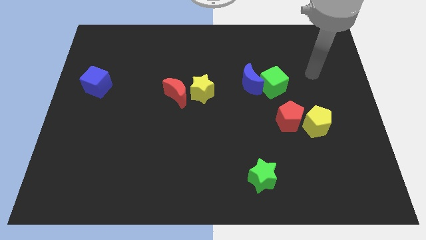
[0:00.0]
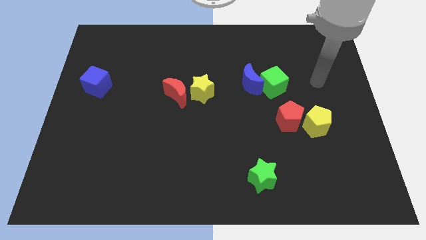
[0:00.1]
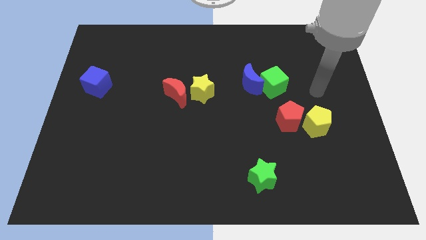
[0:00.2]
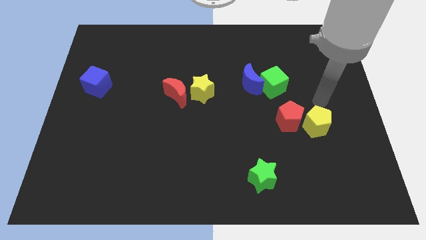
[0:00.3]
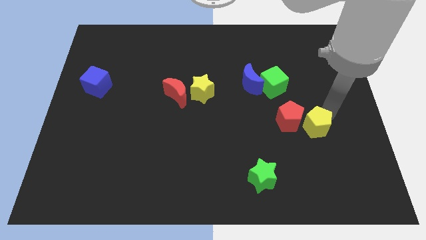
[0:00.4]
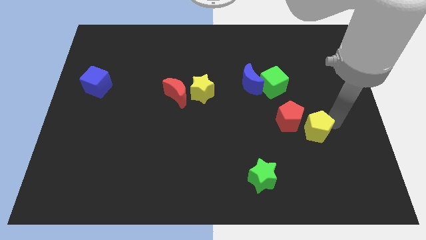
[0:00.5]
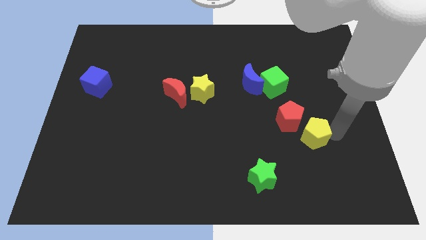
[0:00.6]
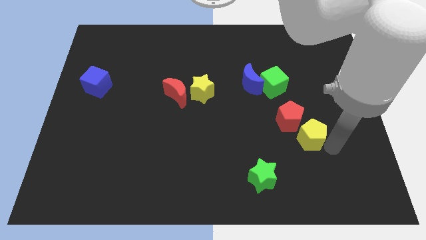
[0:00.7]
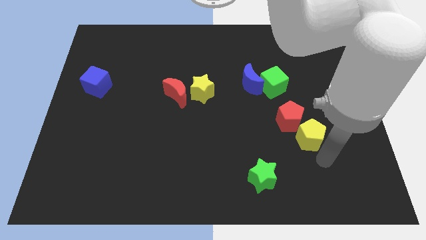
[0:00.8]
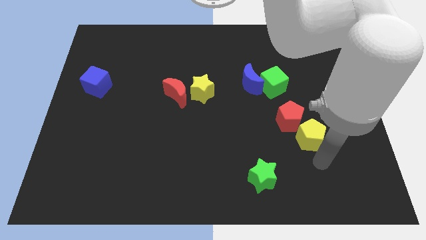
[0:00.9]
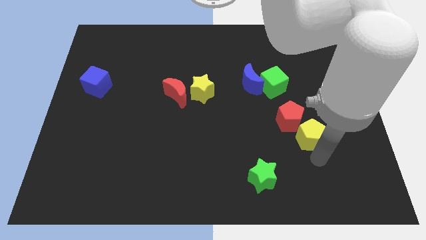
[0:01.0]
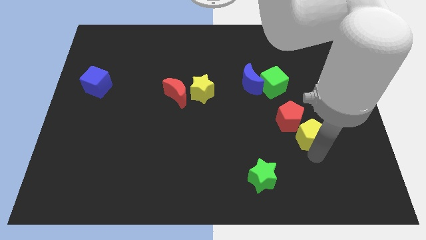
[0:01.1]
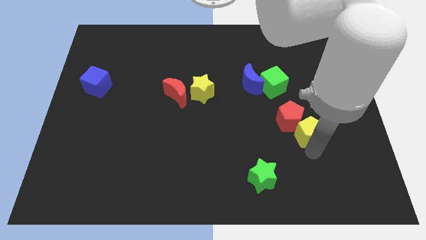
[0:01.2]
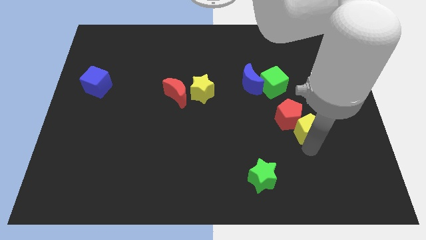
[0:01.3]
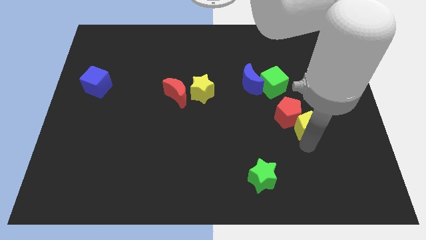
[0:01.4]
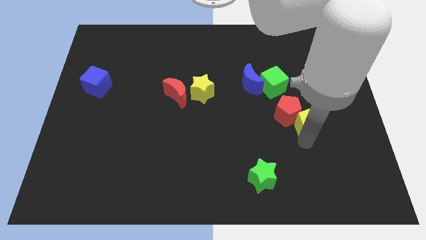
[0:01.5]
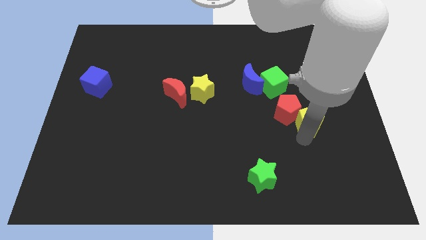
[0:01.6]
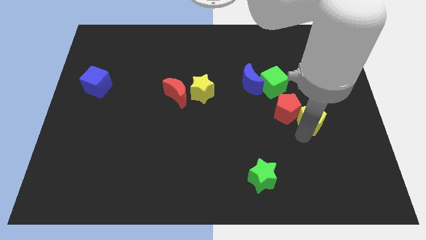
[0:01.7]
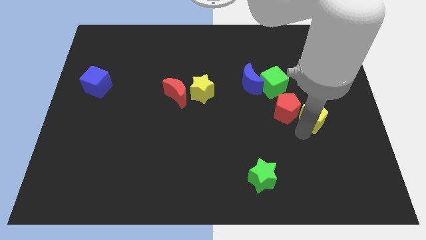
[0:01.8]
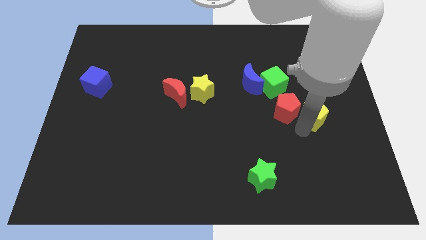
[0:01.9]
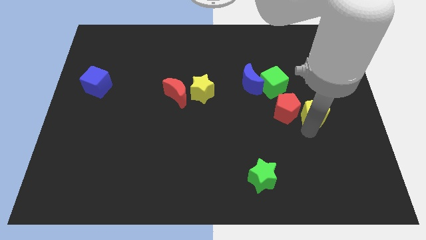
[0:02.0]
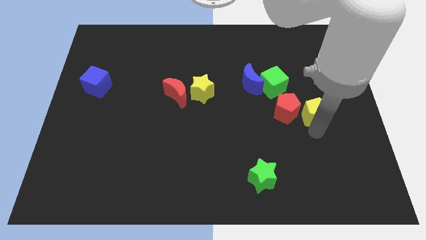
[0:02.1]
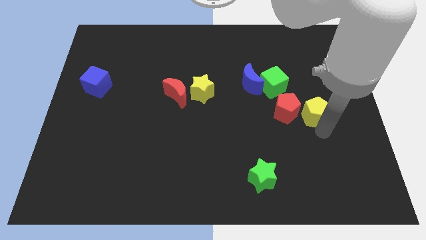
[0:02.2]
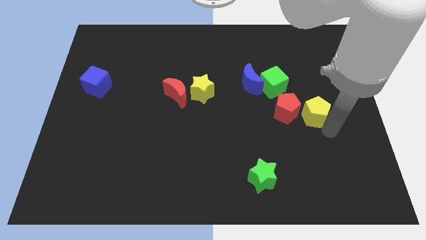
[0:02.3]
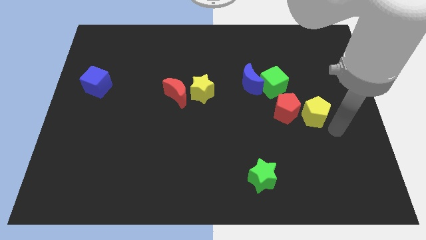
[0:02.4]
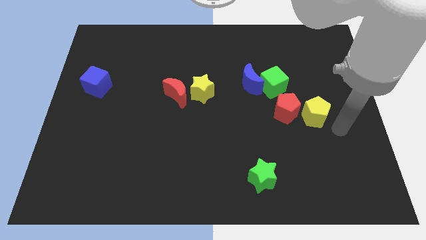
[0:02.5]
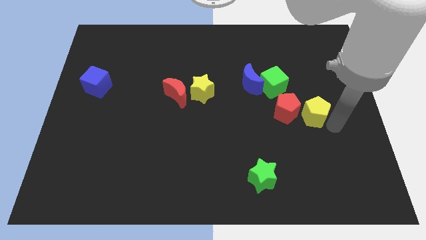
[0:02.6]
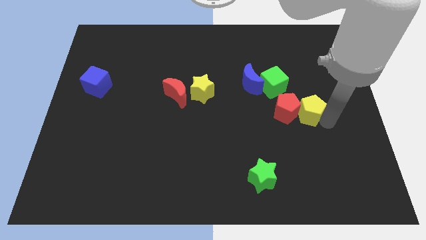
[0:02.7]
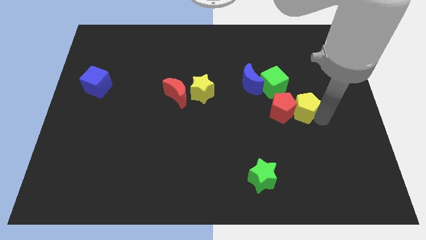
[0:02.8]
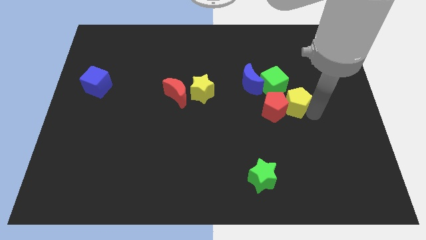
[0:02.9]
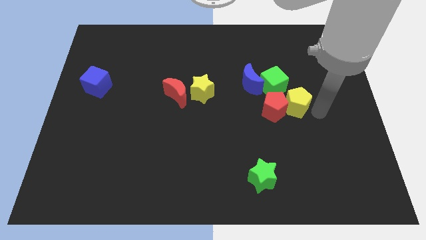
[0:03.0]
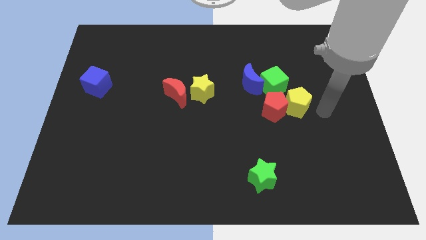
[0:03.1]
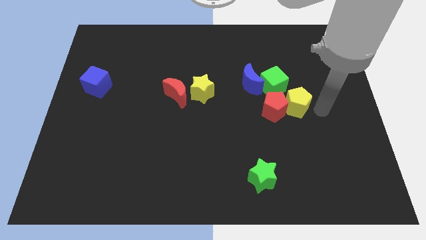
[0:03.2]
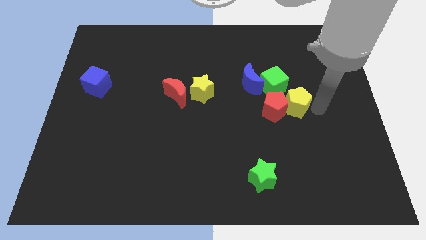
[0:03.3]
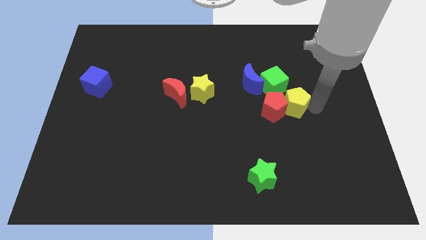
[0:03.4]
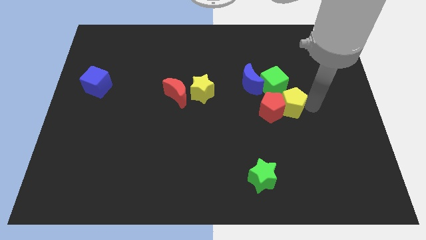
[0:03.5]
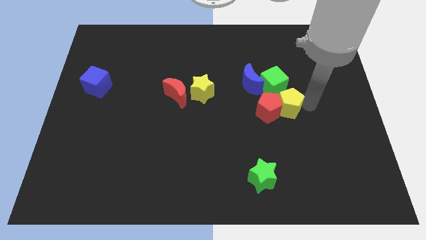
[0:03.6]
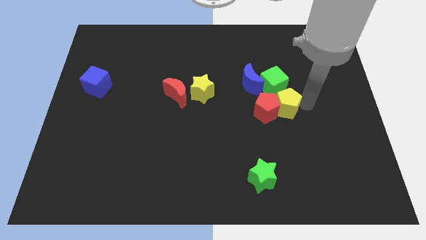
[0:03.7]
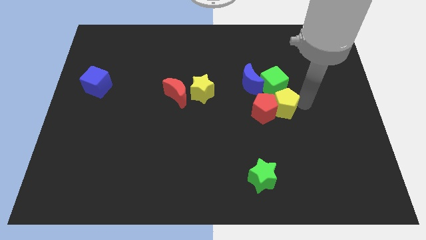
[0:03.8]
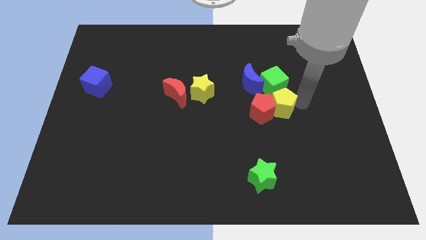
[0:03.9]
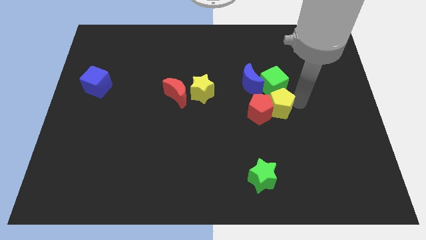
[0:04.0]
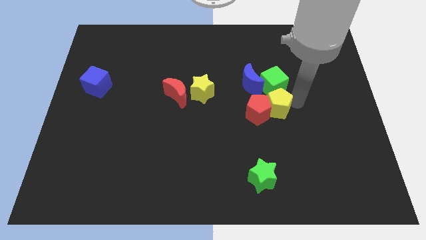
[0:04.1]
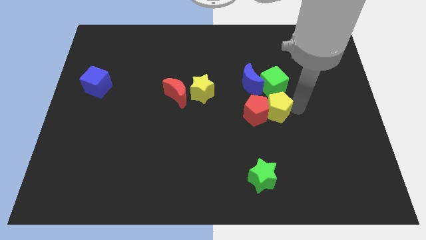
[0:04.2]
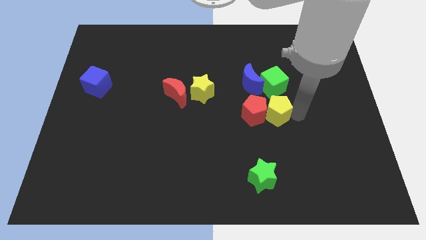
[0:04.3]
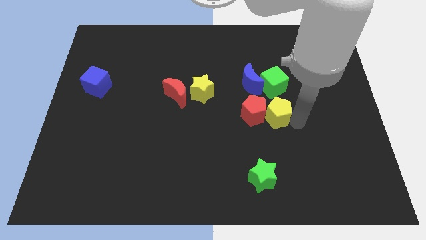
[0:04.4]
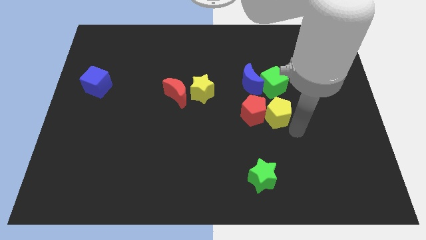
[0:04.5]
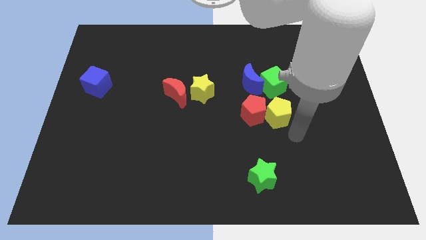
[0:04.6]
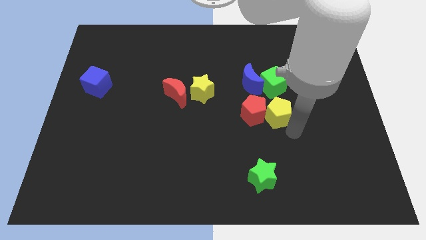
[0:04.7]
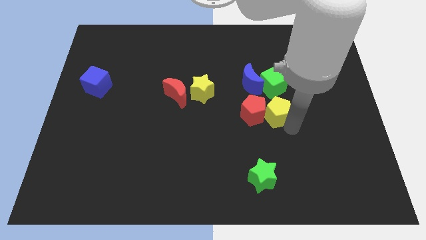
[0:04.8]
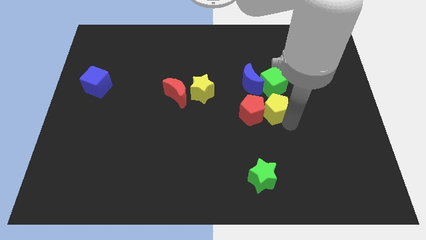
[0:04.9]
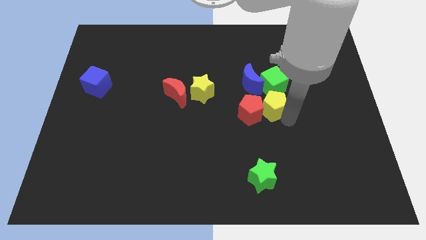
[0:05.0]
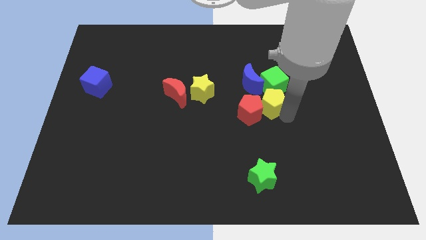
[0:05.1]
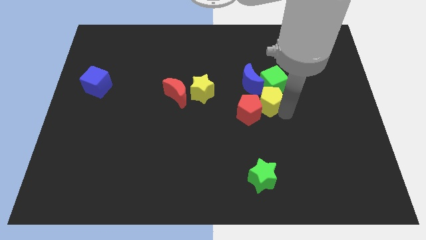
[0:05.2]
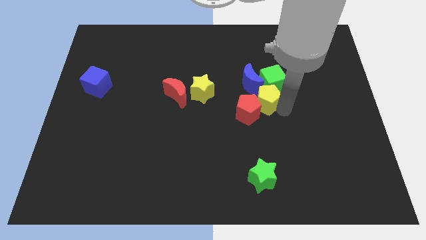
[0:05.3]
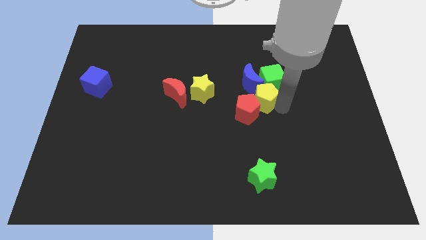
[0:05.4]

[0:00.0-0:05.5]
push the yellow pentagon to the blue moon

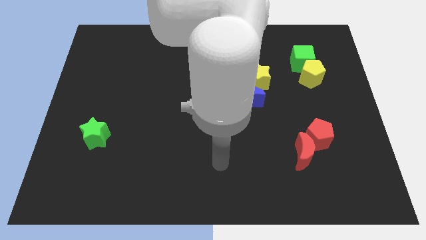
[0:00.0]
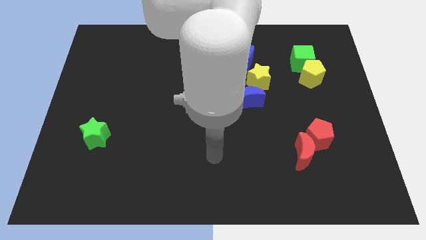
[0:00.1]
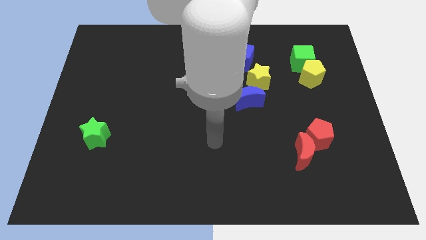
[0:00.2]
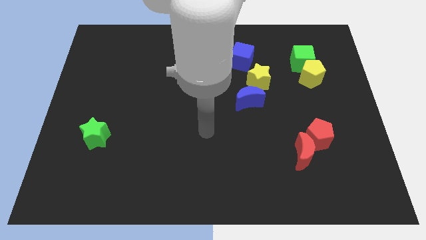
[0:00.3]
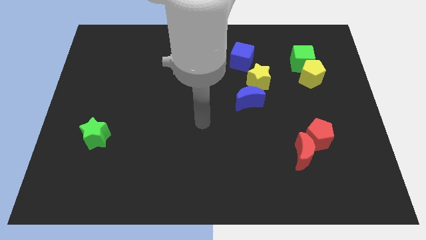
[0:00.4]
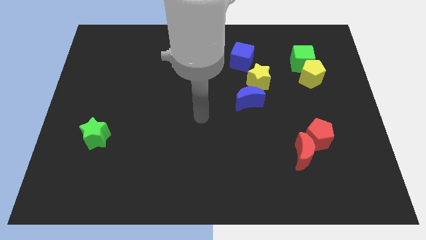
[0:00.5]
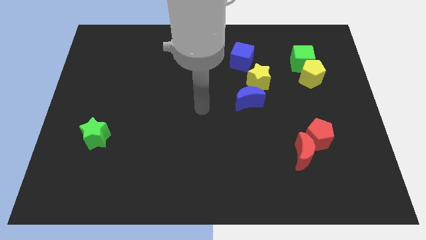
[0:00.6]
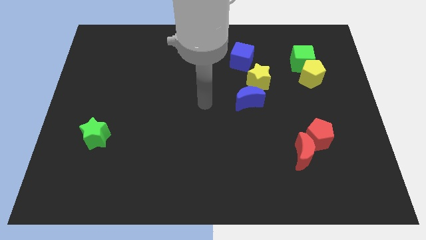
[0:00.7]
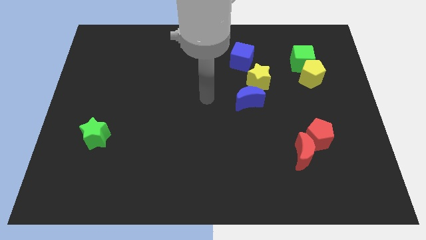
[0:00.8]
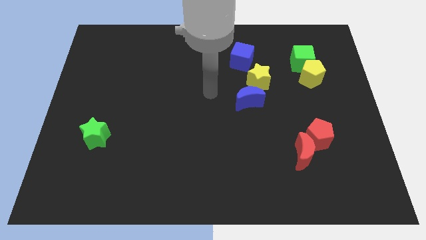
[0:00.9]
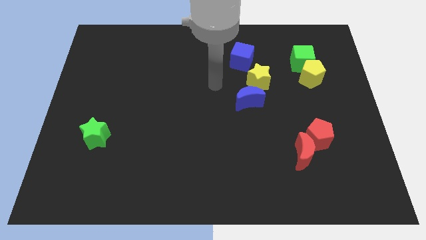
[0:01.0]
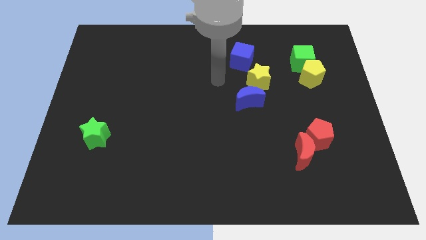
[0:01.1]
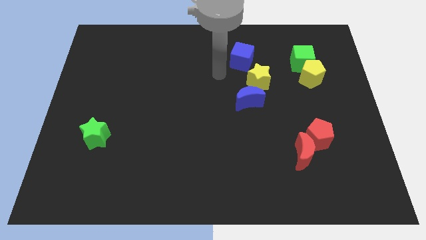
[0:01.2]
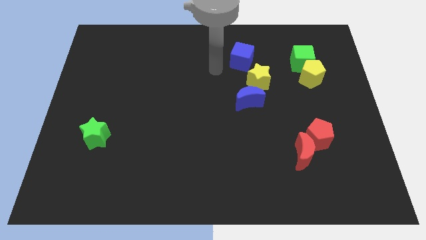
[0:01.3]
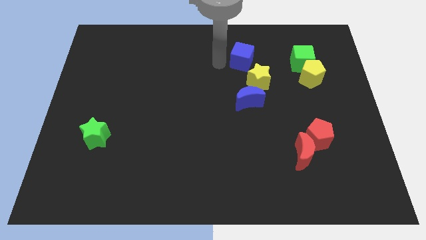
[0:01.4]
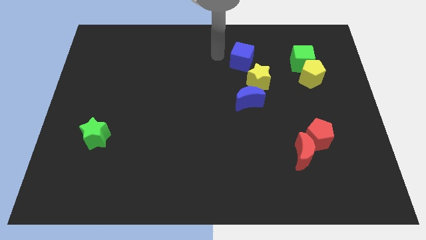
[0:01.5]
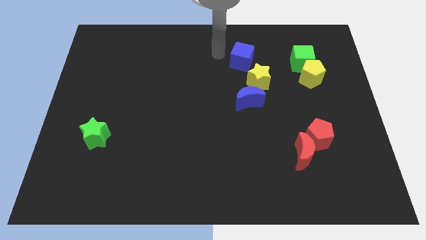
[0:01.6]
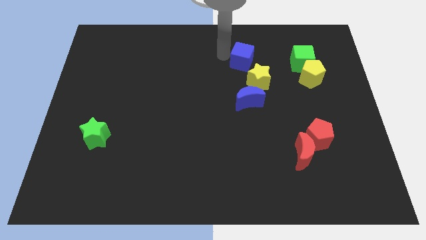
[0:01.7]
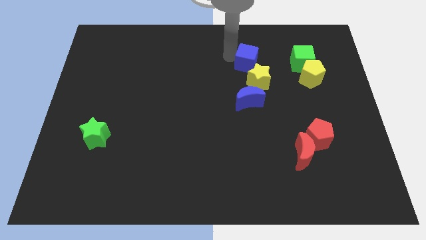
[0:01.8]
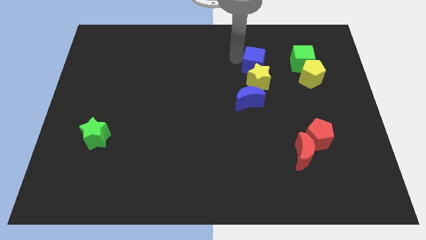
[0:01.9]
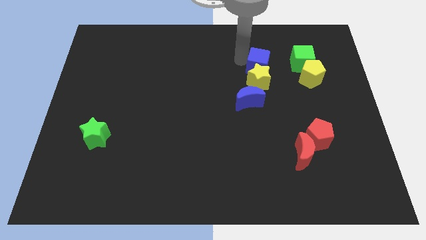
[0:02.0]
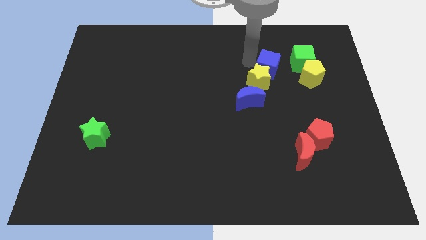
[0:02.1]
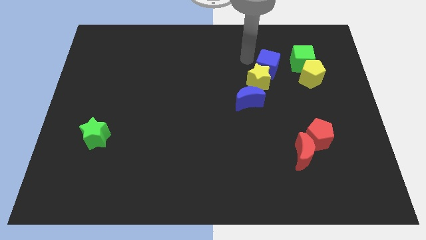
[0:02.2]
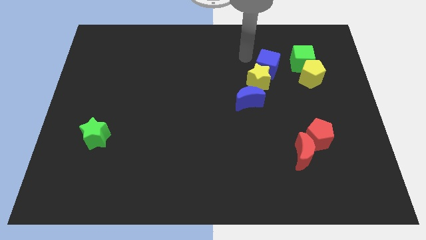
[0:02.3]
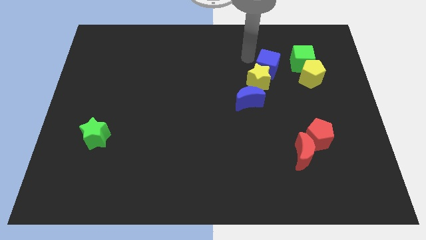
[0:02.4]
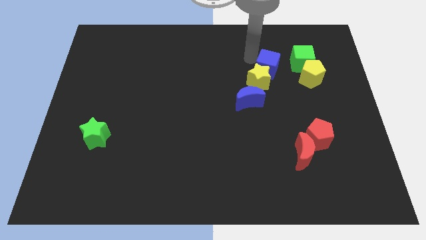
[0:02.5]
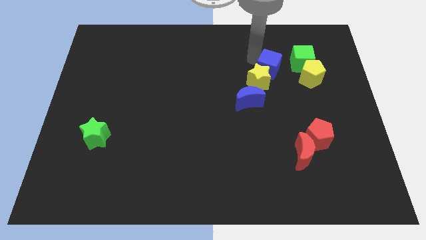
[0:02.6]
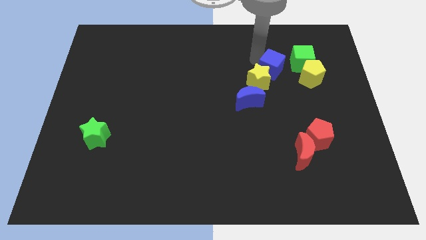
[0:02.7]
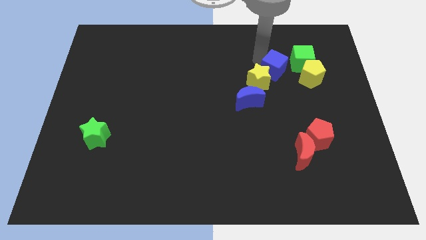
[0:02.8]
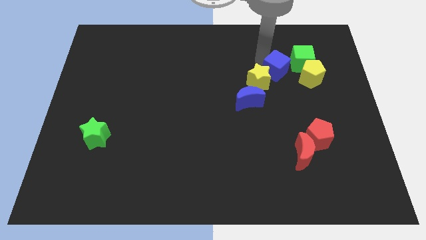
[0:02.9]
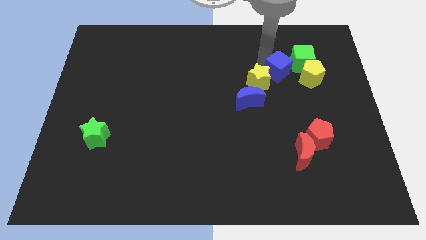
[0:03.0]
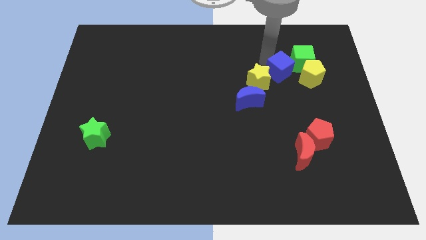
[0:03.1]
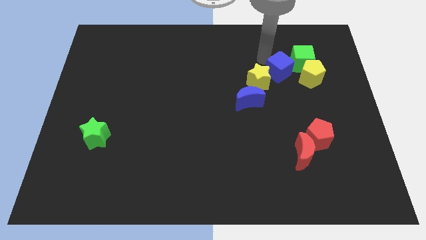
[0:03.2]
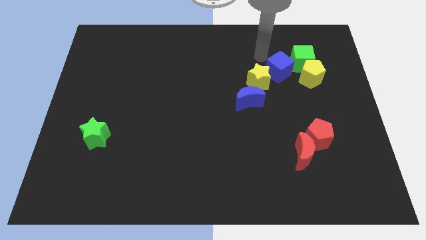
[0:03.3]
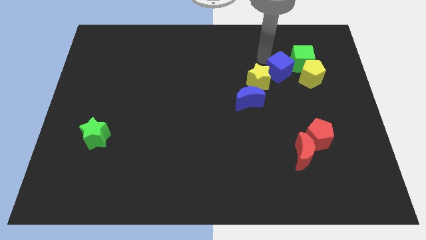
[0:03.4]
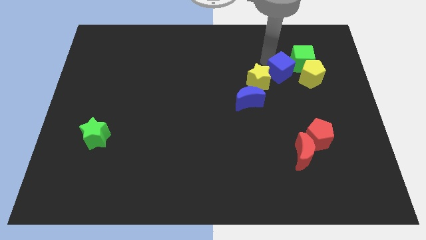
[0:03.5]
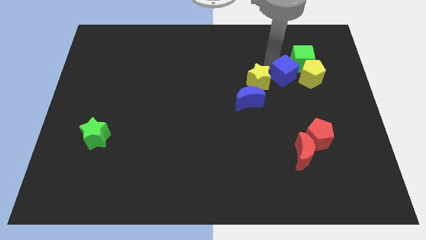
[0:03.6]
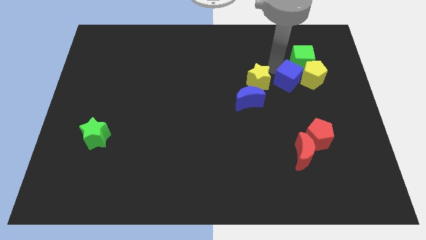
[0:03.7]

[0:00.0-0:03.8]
move the blue cube to the yellow pentagon
